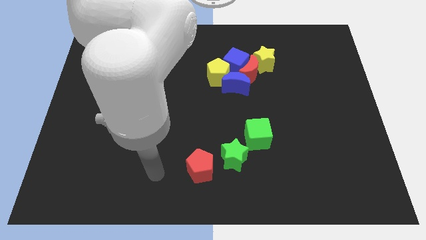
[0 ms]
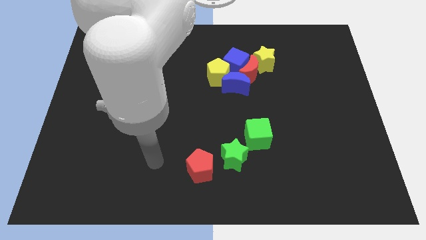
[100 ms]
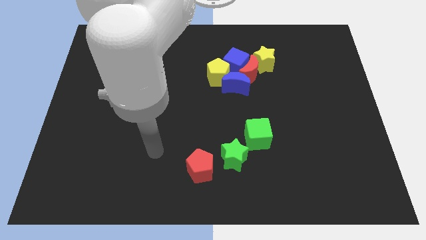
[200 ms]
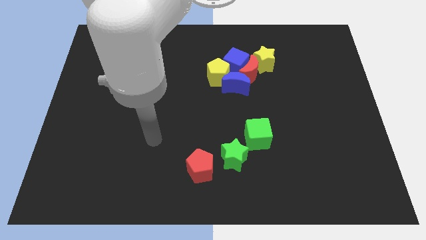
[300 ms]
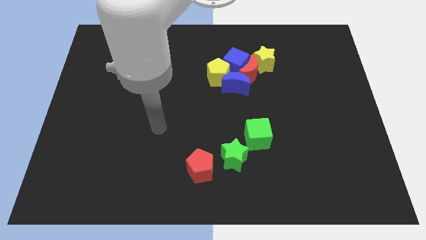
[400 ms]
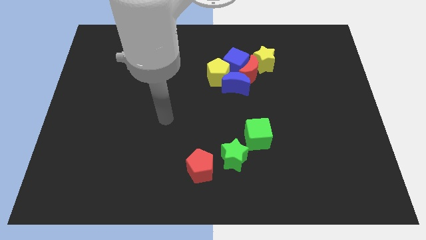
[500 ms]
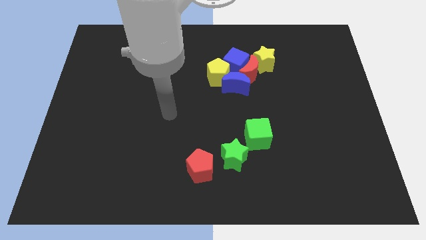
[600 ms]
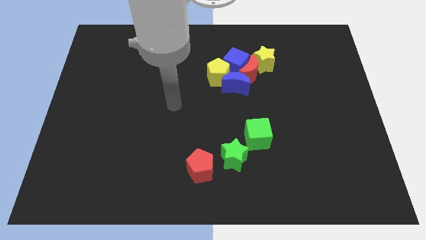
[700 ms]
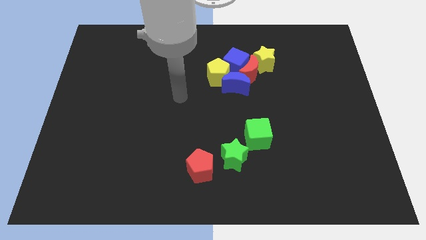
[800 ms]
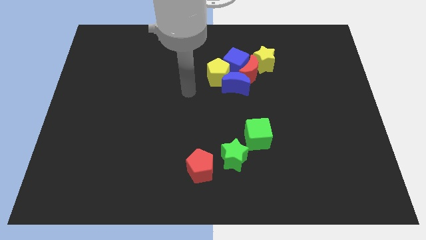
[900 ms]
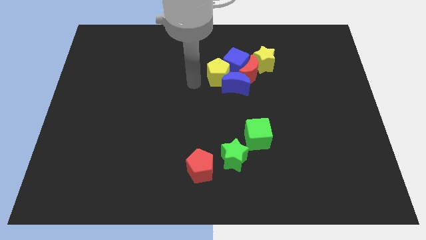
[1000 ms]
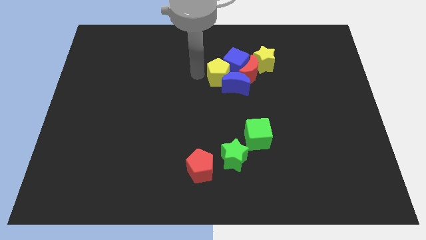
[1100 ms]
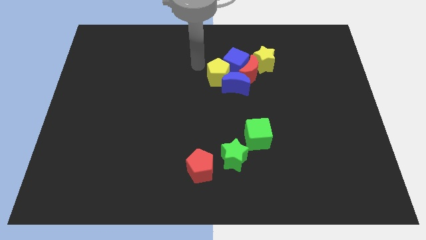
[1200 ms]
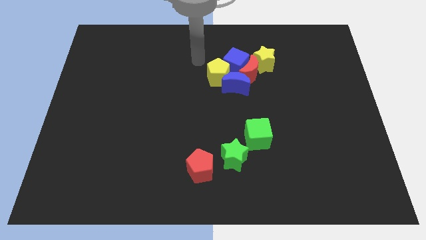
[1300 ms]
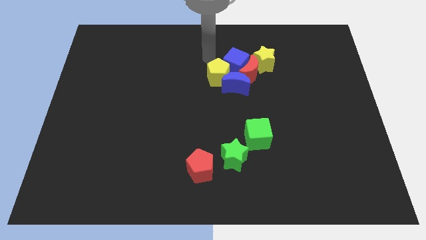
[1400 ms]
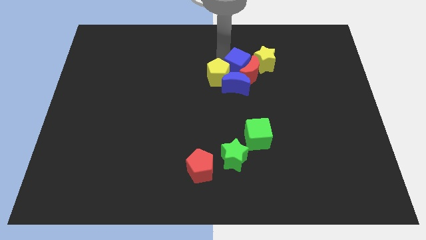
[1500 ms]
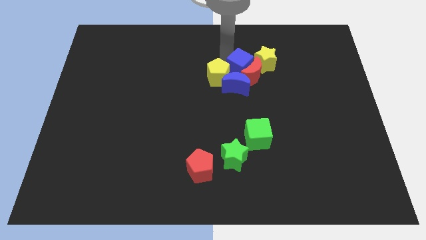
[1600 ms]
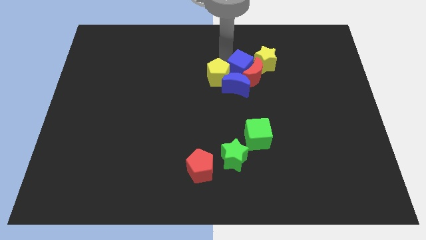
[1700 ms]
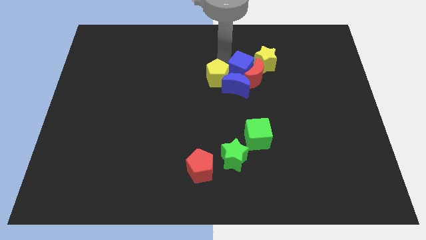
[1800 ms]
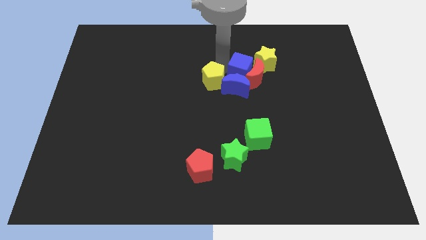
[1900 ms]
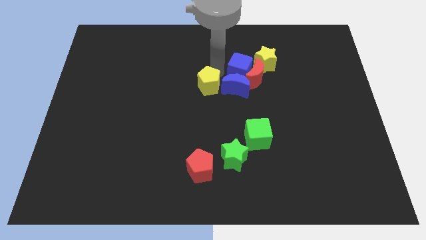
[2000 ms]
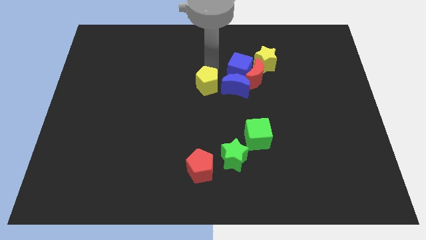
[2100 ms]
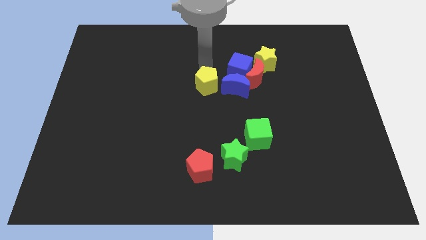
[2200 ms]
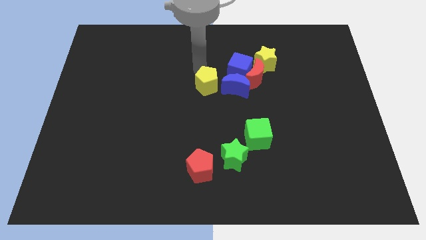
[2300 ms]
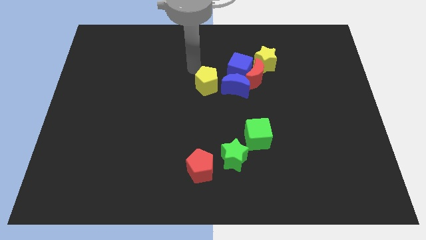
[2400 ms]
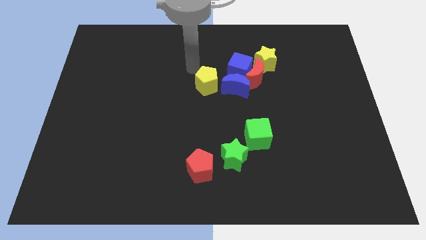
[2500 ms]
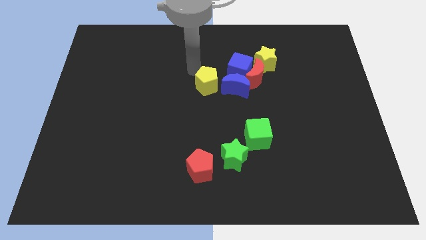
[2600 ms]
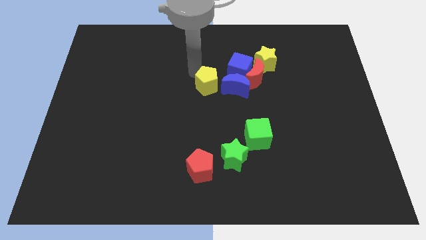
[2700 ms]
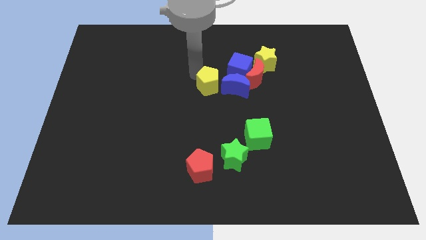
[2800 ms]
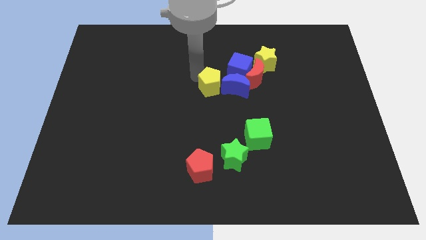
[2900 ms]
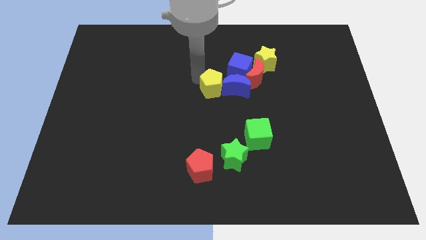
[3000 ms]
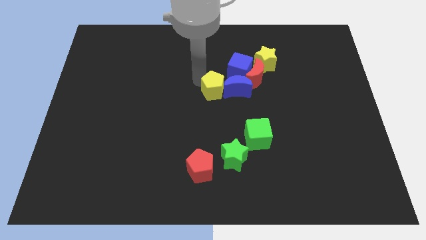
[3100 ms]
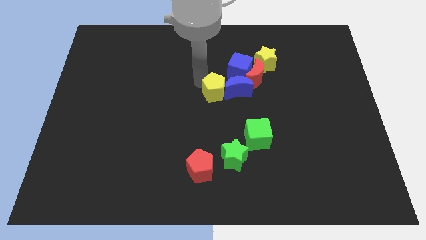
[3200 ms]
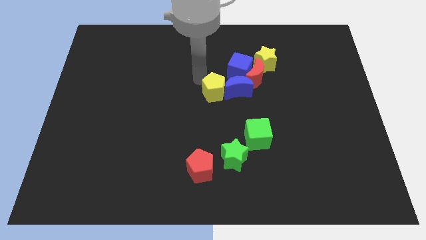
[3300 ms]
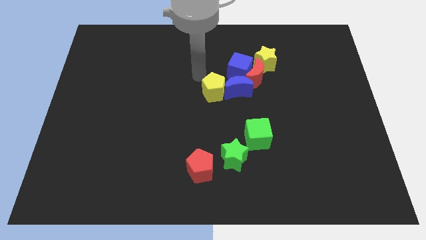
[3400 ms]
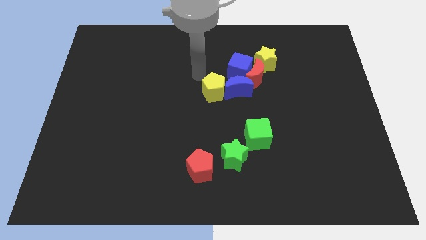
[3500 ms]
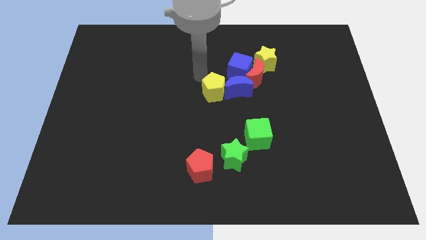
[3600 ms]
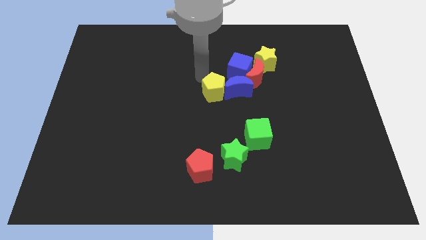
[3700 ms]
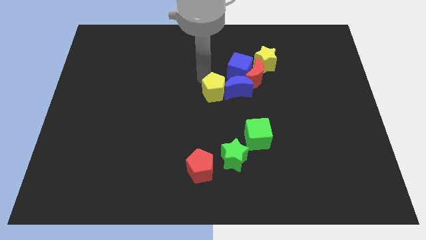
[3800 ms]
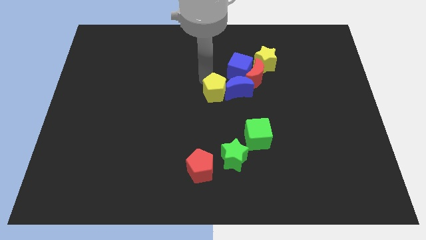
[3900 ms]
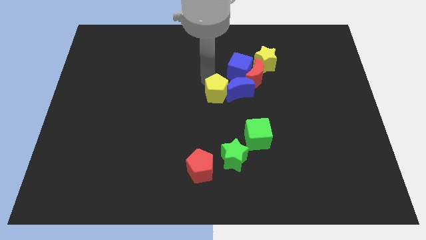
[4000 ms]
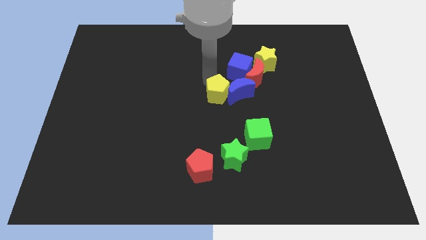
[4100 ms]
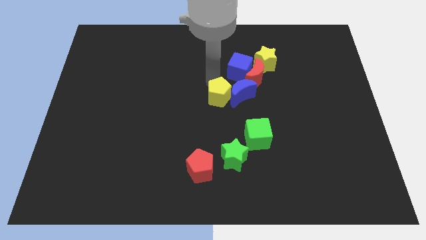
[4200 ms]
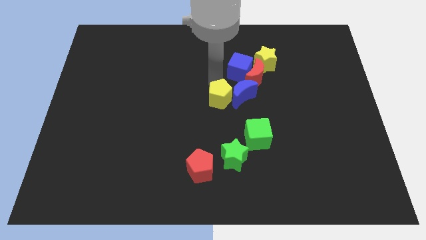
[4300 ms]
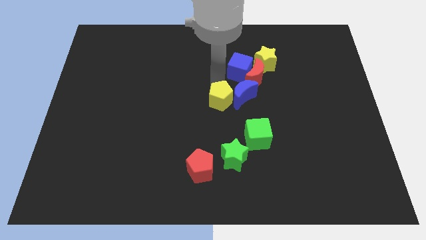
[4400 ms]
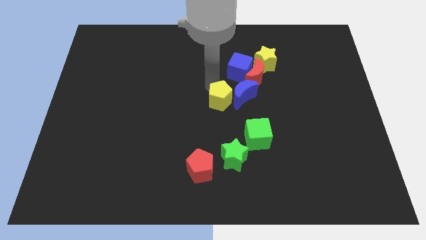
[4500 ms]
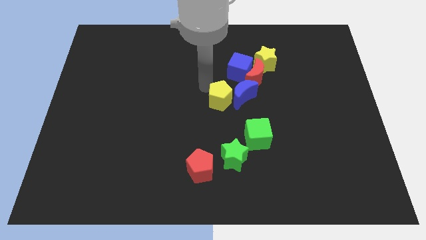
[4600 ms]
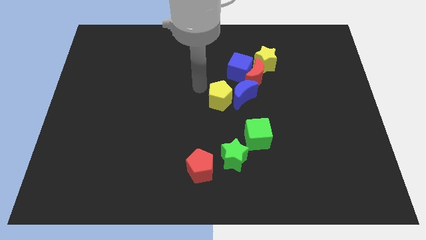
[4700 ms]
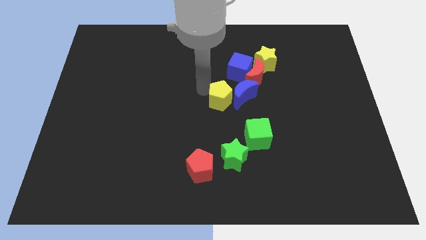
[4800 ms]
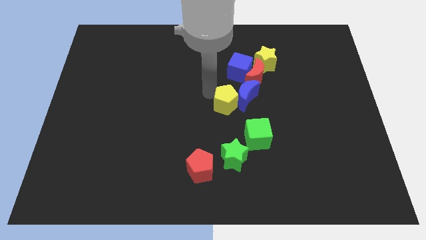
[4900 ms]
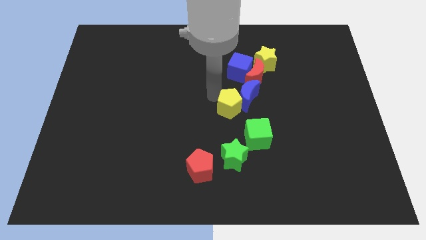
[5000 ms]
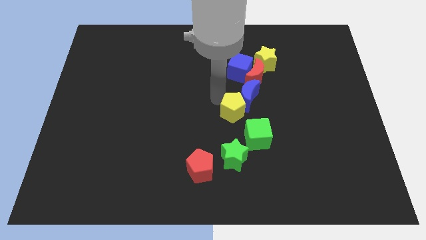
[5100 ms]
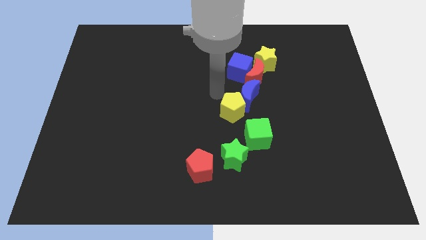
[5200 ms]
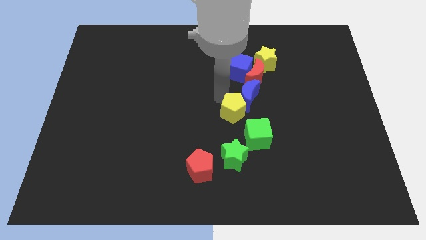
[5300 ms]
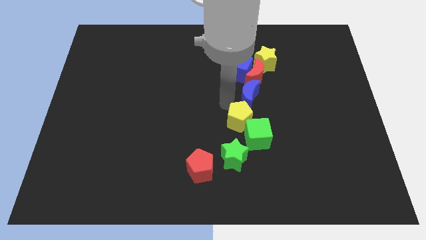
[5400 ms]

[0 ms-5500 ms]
slide the yellow pentagon next to the green cube

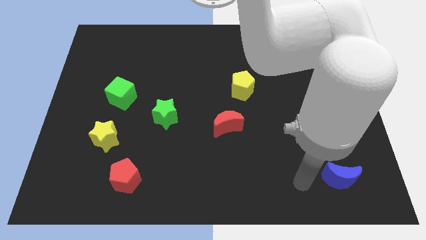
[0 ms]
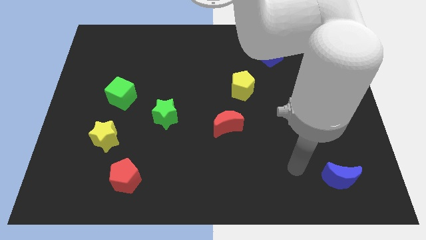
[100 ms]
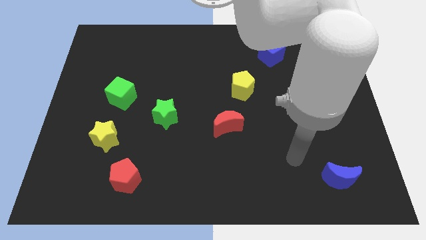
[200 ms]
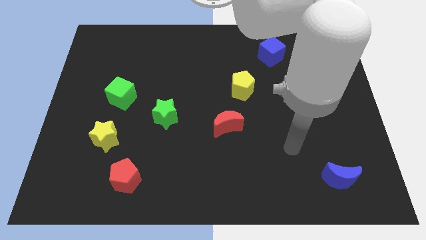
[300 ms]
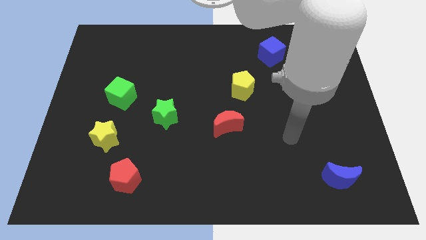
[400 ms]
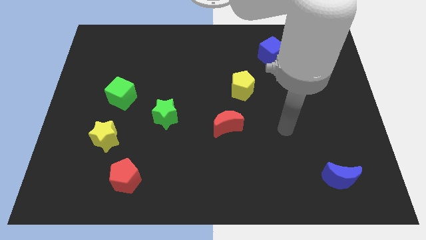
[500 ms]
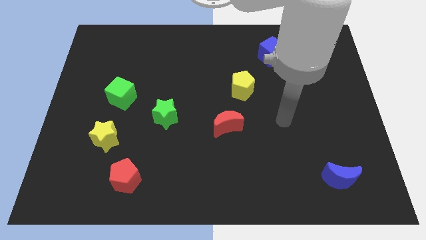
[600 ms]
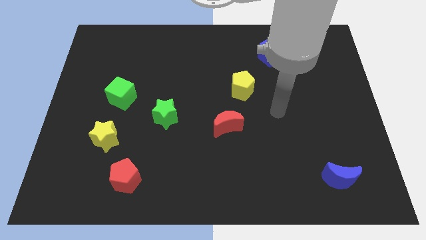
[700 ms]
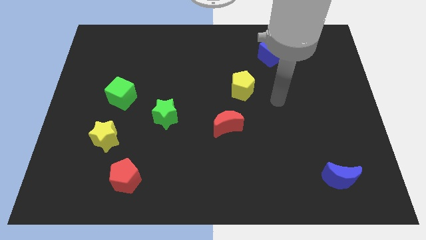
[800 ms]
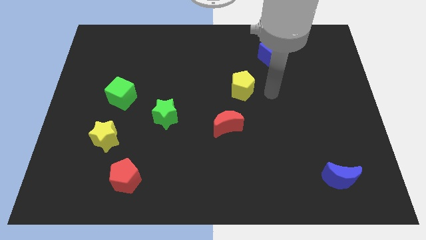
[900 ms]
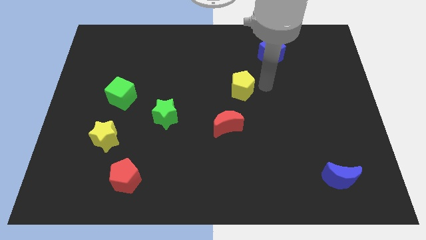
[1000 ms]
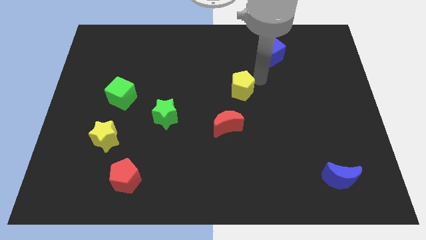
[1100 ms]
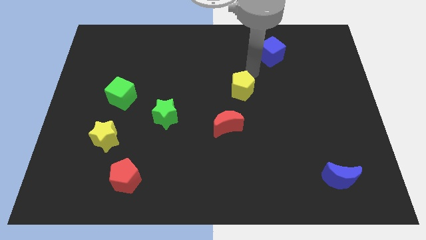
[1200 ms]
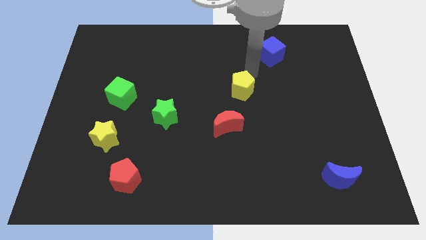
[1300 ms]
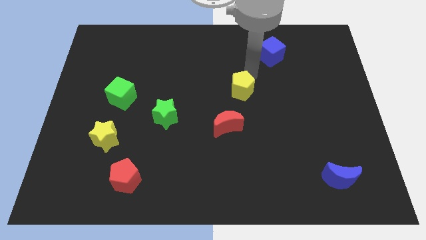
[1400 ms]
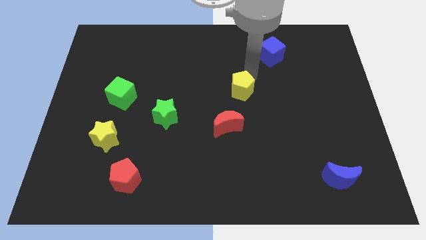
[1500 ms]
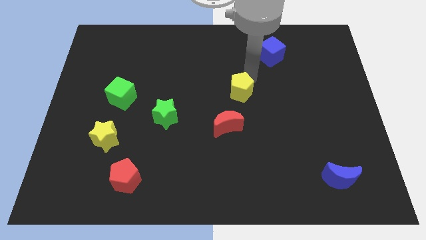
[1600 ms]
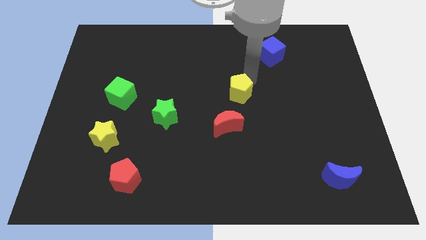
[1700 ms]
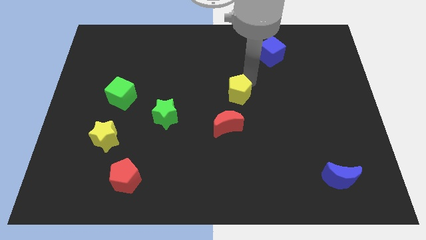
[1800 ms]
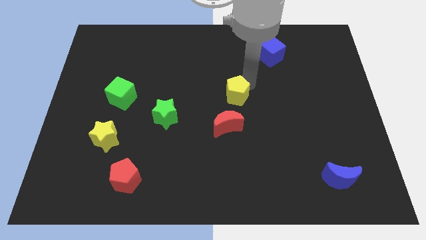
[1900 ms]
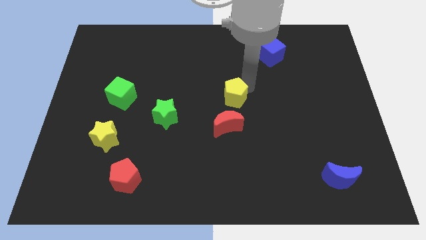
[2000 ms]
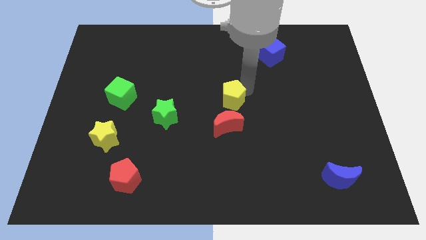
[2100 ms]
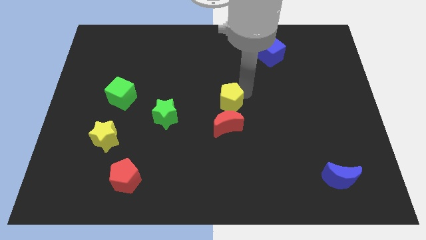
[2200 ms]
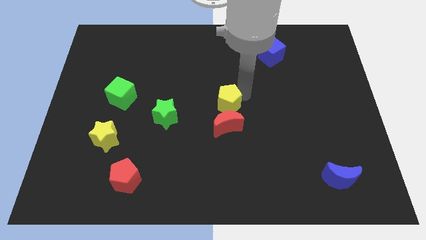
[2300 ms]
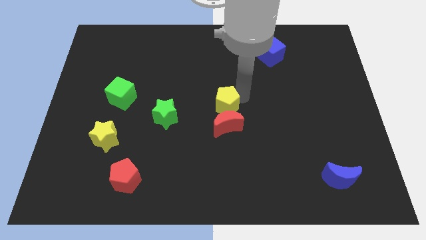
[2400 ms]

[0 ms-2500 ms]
move the yellow pentagon next to the red moon
